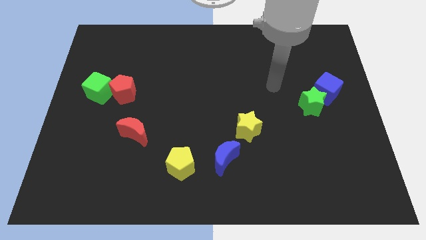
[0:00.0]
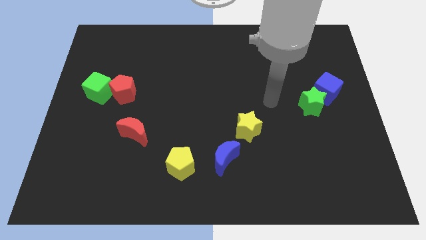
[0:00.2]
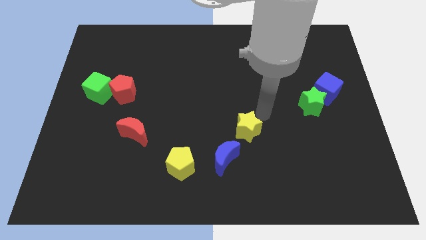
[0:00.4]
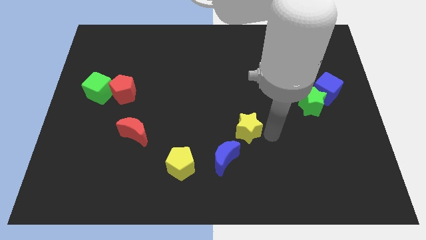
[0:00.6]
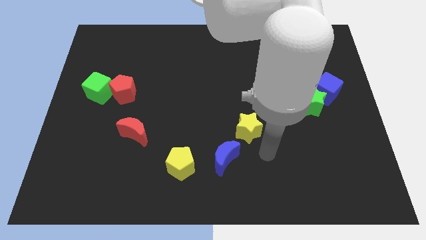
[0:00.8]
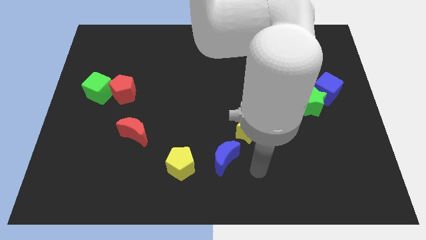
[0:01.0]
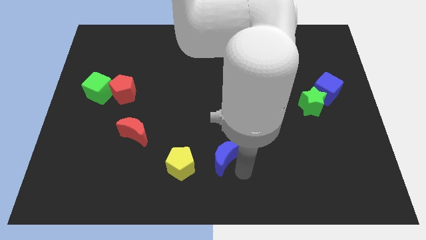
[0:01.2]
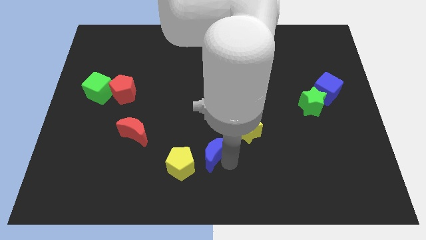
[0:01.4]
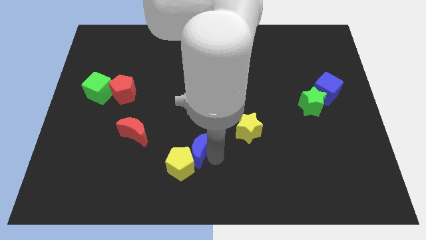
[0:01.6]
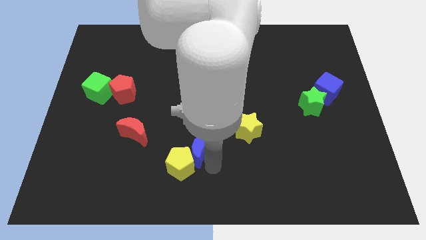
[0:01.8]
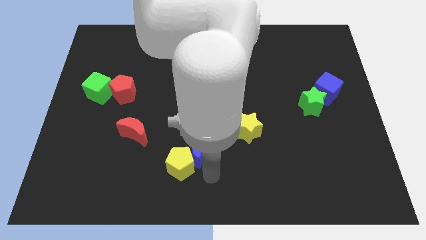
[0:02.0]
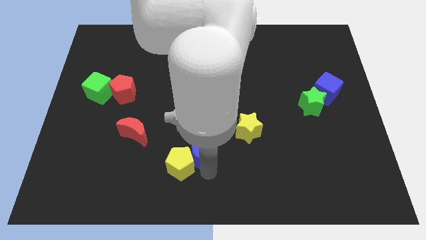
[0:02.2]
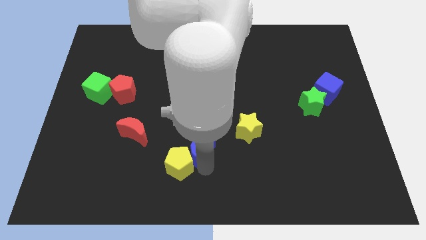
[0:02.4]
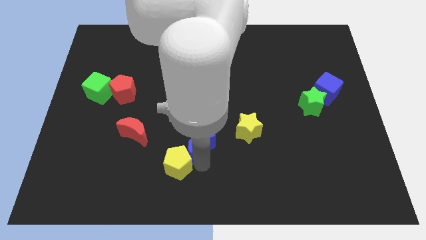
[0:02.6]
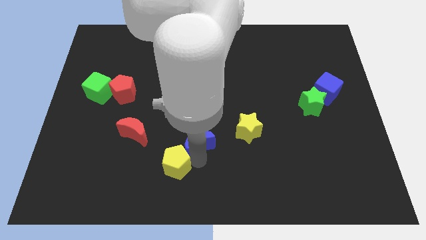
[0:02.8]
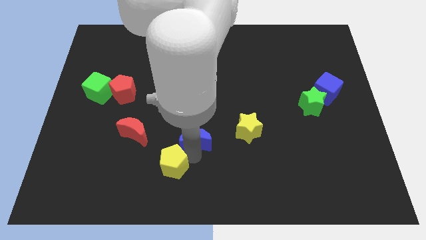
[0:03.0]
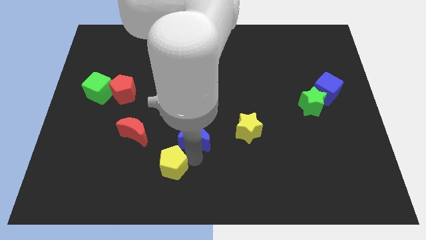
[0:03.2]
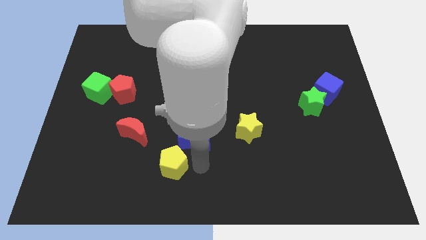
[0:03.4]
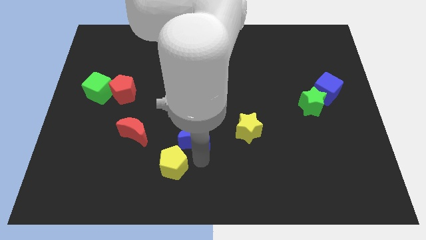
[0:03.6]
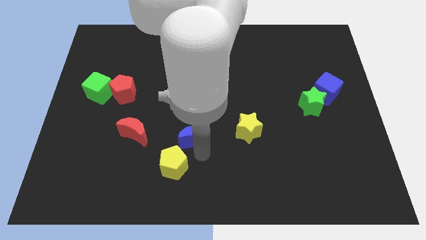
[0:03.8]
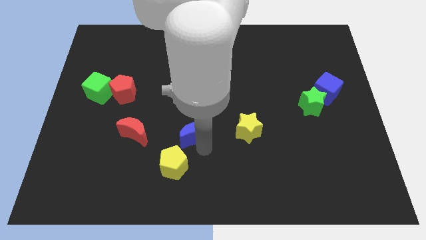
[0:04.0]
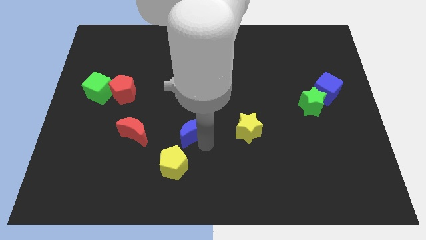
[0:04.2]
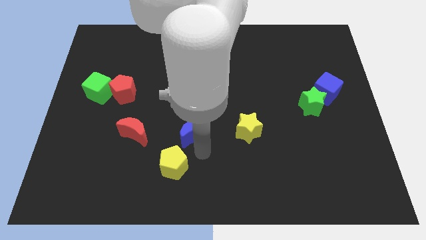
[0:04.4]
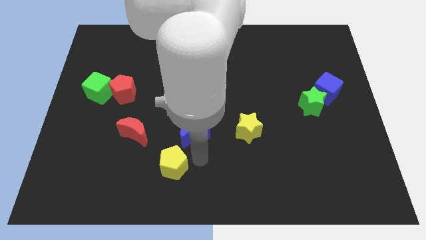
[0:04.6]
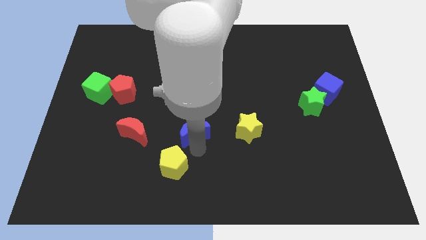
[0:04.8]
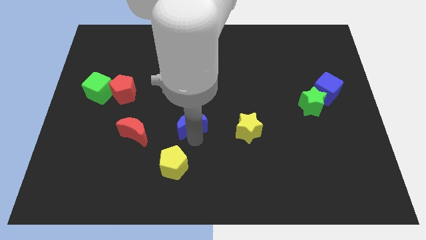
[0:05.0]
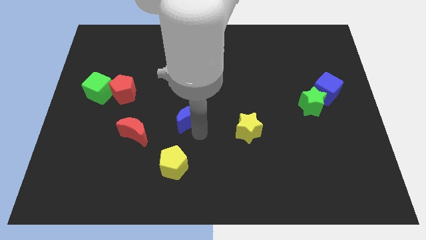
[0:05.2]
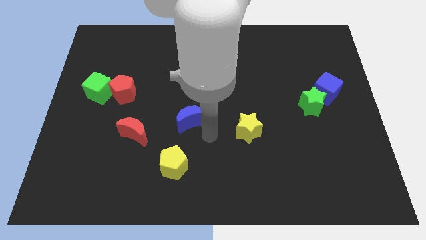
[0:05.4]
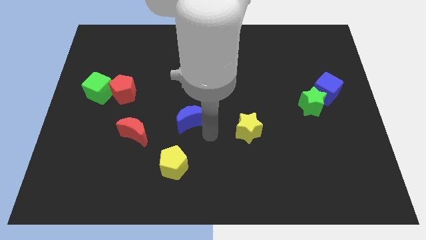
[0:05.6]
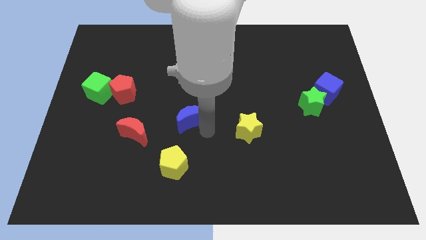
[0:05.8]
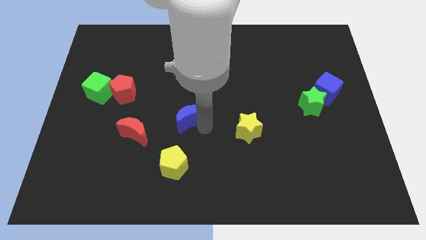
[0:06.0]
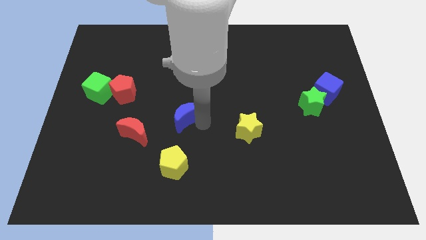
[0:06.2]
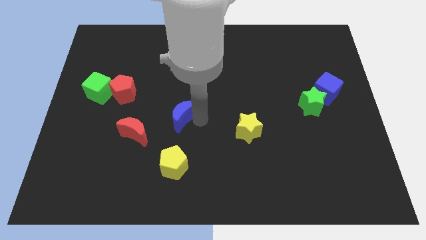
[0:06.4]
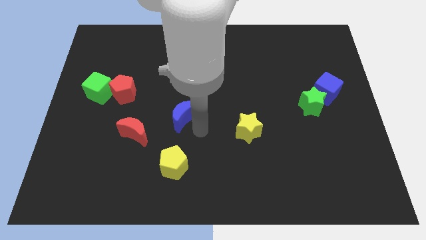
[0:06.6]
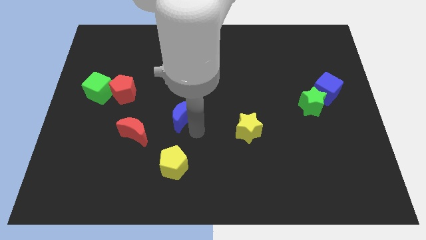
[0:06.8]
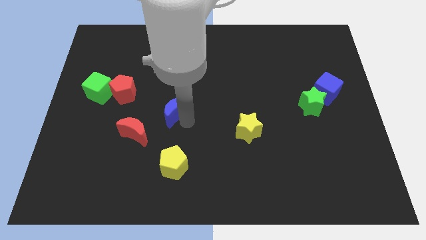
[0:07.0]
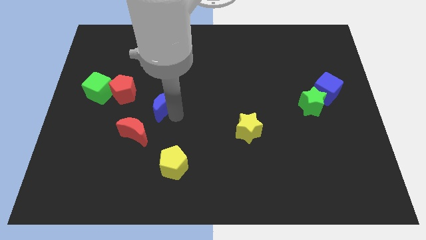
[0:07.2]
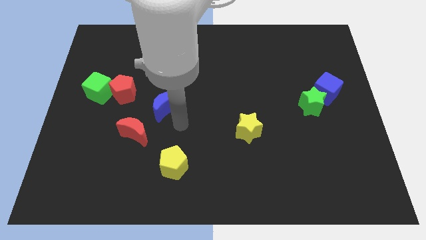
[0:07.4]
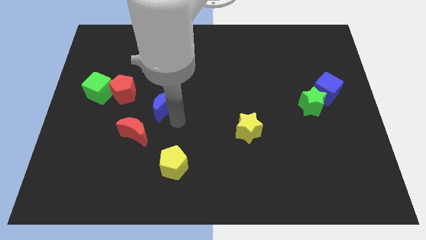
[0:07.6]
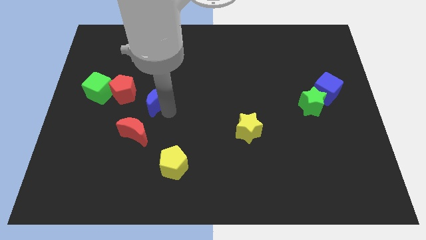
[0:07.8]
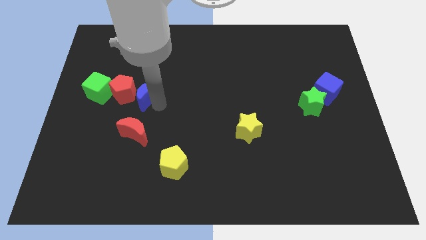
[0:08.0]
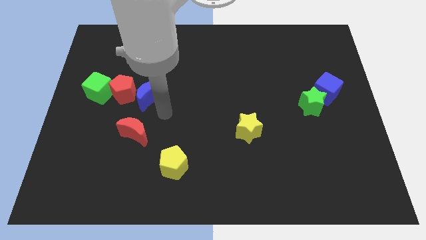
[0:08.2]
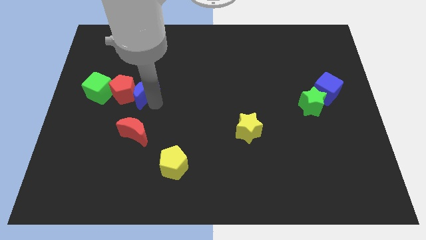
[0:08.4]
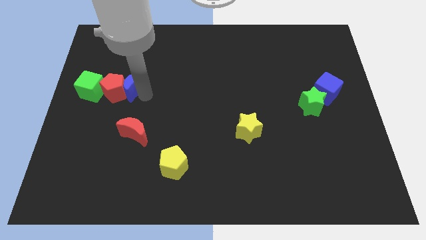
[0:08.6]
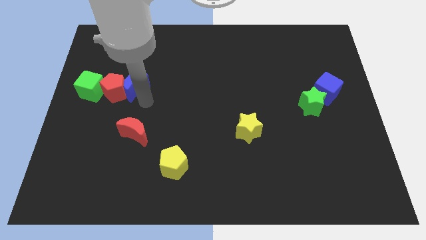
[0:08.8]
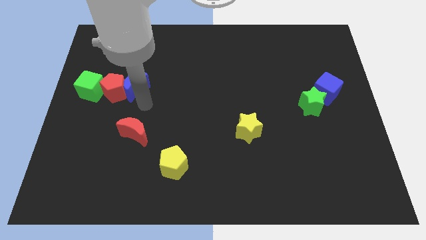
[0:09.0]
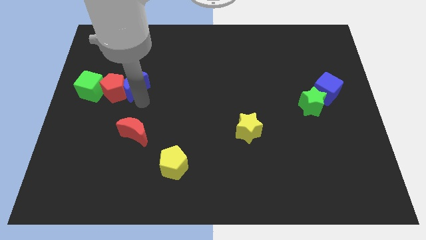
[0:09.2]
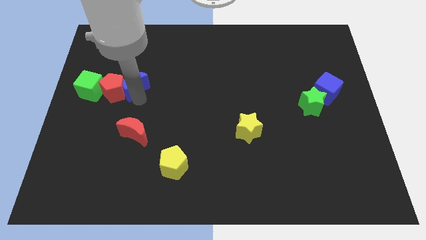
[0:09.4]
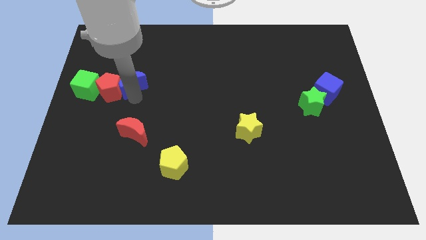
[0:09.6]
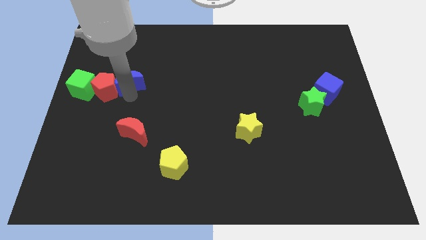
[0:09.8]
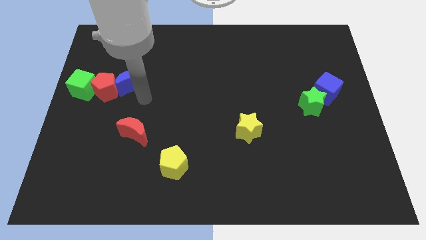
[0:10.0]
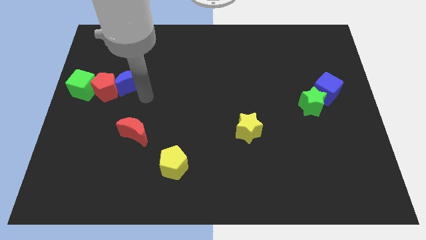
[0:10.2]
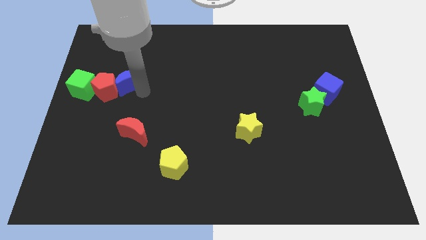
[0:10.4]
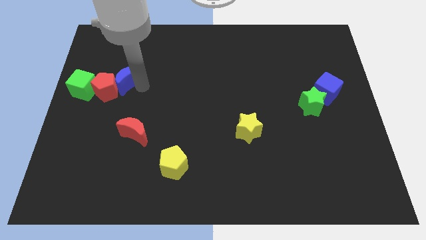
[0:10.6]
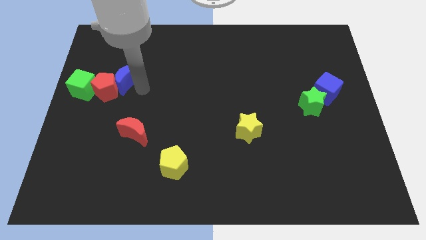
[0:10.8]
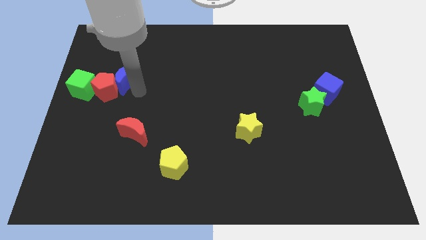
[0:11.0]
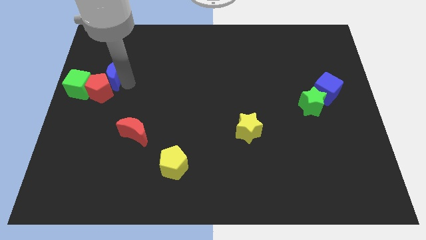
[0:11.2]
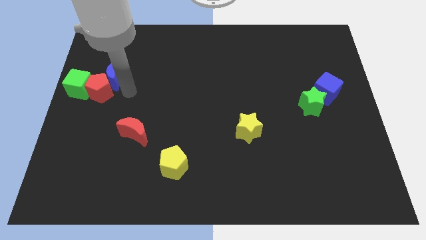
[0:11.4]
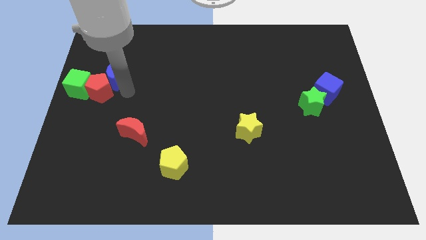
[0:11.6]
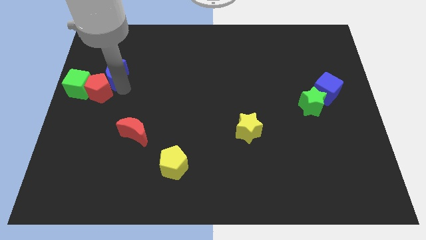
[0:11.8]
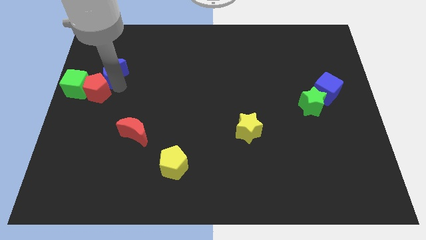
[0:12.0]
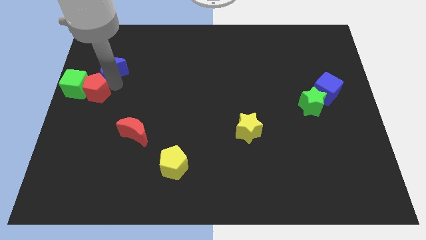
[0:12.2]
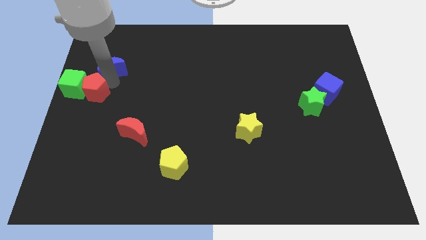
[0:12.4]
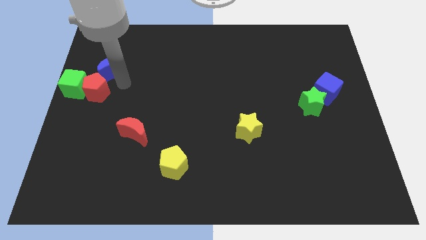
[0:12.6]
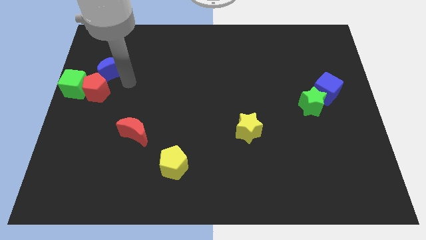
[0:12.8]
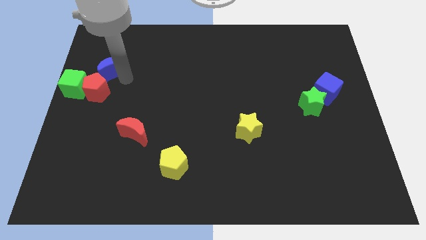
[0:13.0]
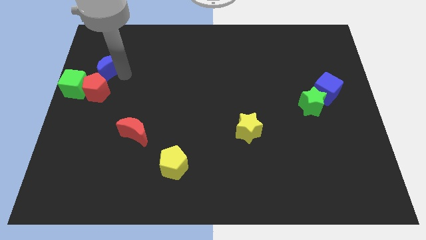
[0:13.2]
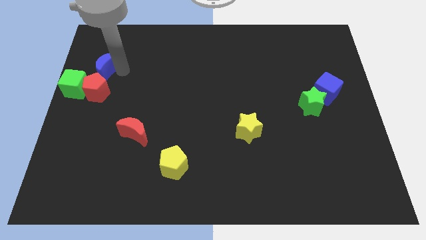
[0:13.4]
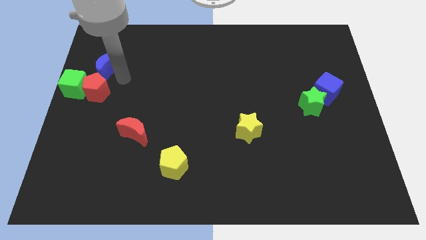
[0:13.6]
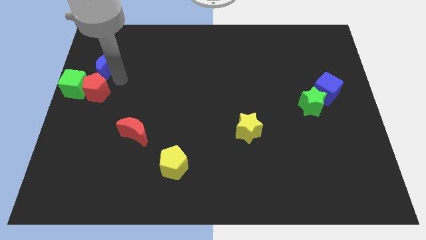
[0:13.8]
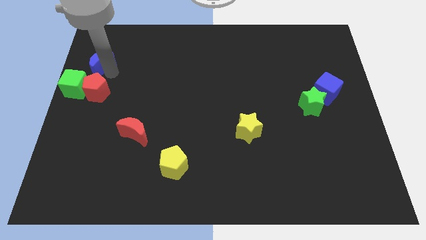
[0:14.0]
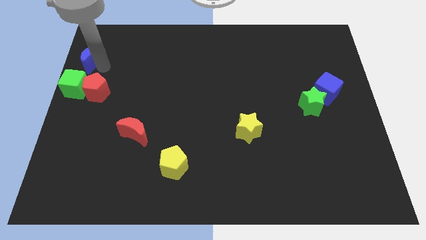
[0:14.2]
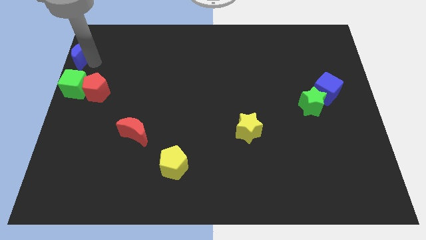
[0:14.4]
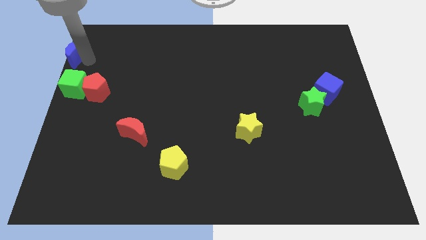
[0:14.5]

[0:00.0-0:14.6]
slide the blue moon to the upper left corner
